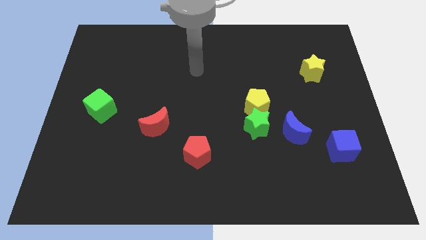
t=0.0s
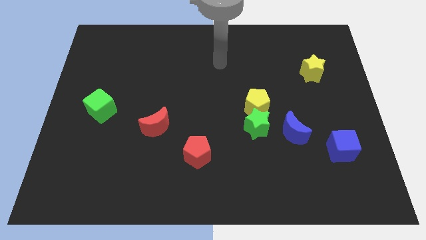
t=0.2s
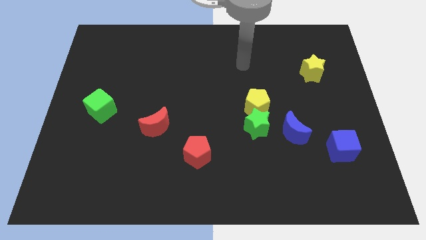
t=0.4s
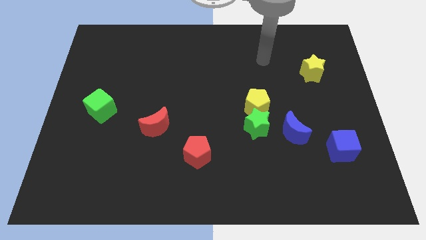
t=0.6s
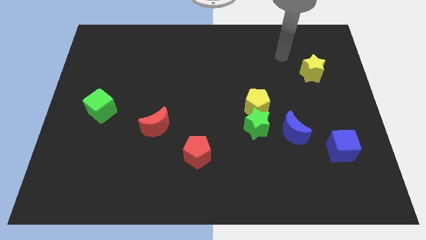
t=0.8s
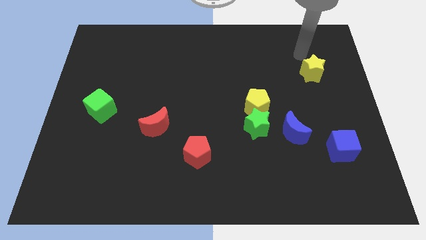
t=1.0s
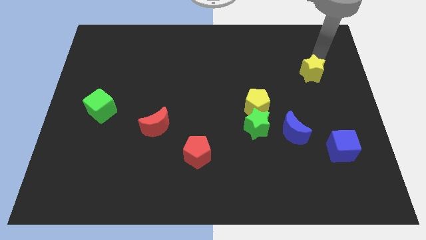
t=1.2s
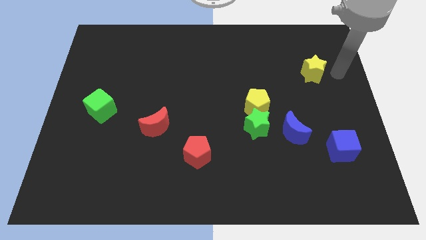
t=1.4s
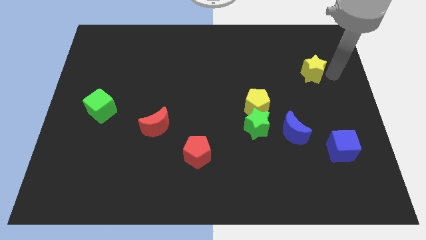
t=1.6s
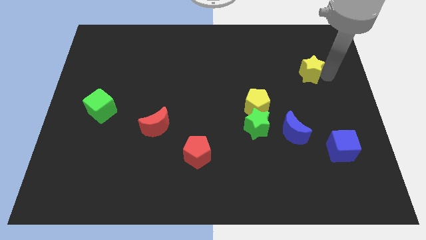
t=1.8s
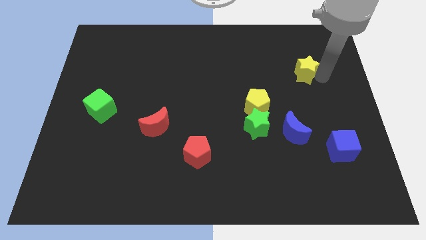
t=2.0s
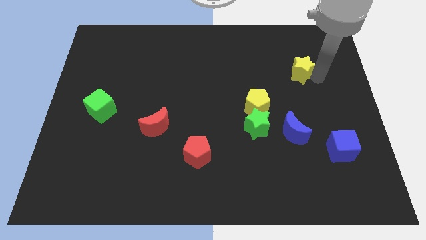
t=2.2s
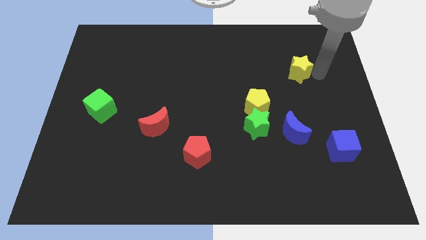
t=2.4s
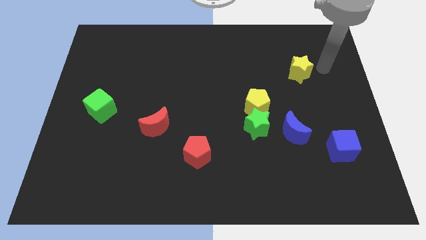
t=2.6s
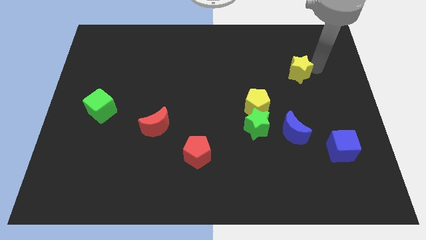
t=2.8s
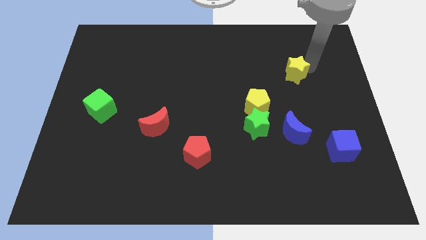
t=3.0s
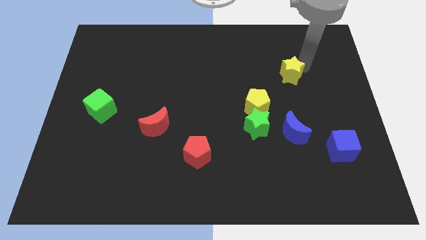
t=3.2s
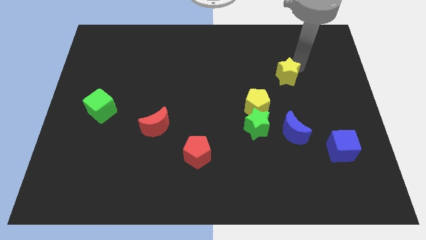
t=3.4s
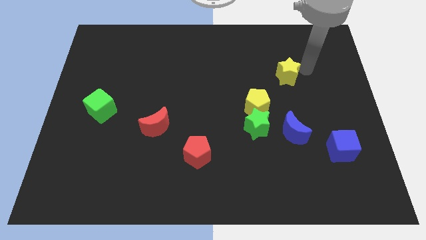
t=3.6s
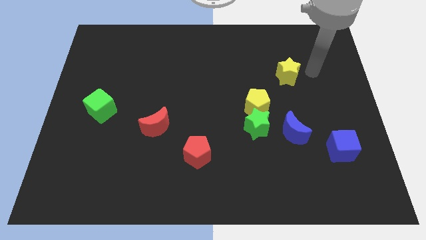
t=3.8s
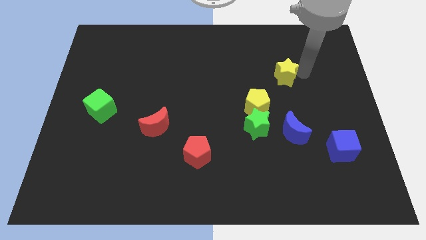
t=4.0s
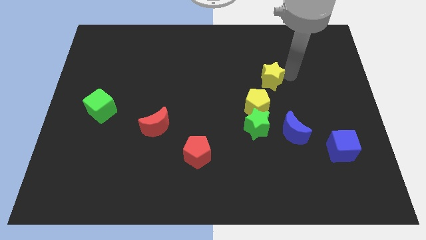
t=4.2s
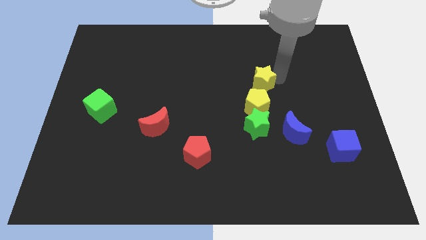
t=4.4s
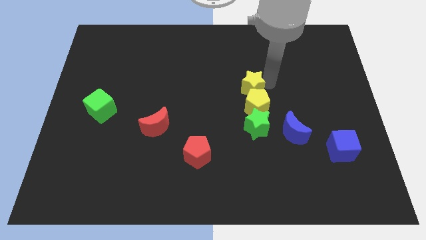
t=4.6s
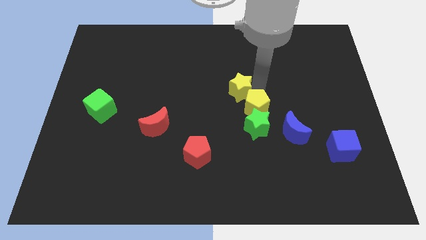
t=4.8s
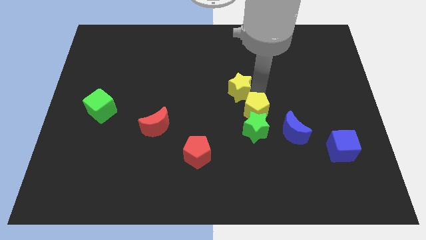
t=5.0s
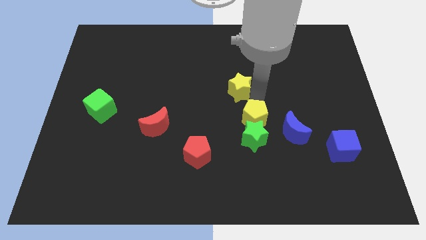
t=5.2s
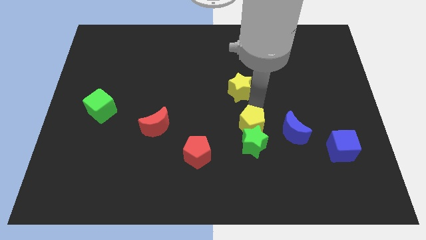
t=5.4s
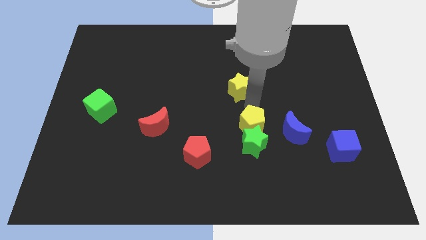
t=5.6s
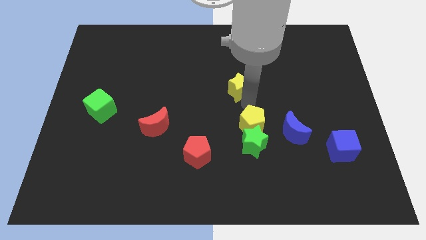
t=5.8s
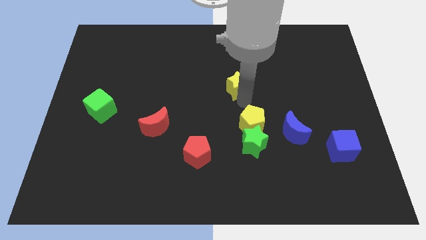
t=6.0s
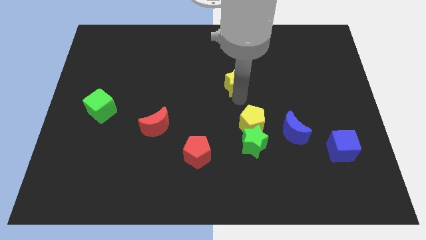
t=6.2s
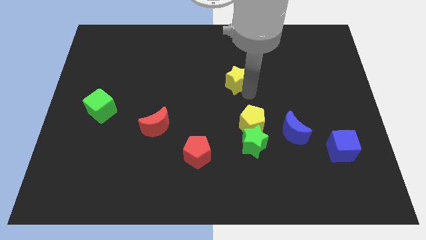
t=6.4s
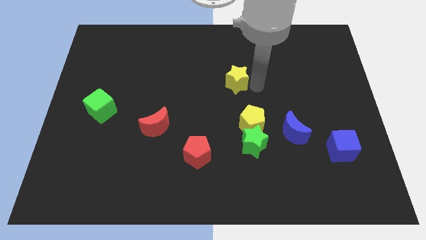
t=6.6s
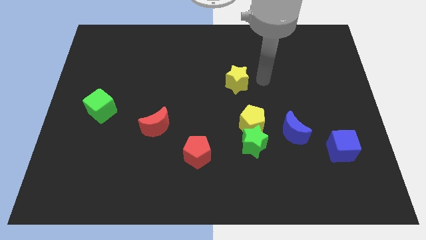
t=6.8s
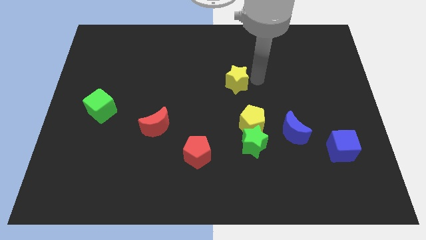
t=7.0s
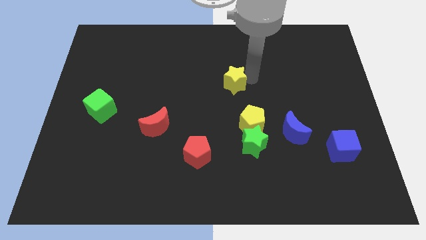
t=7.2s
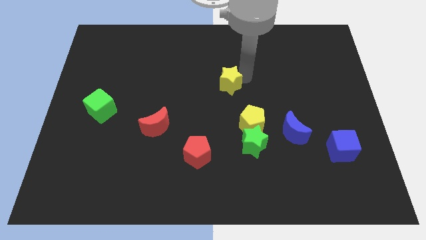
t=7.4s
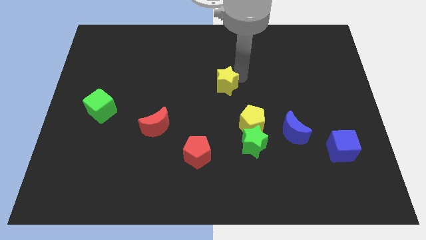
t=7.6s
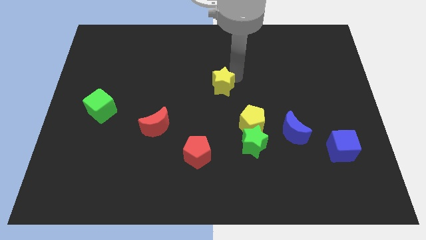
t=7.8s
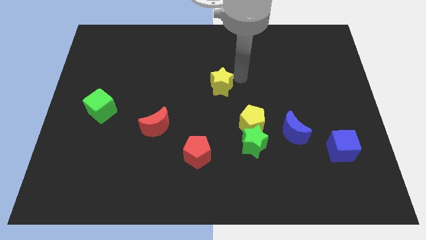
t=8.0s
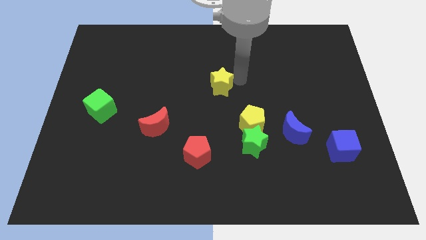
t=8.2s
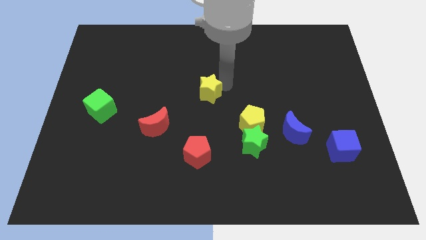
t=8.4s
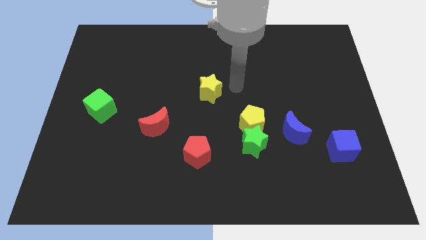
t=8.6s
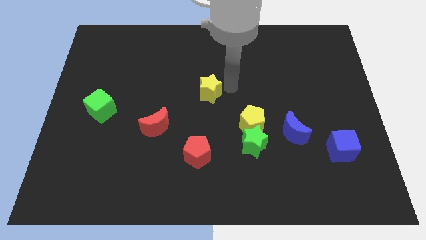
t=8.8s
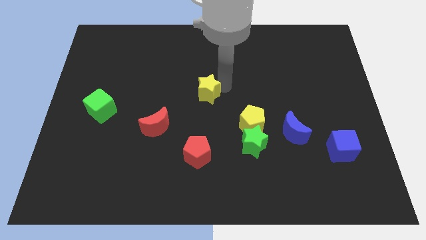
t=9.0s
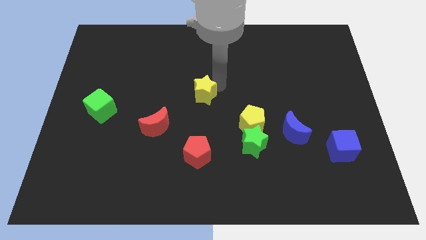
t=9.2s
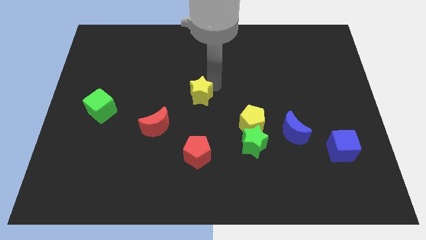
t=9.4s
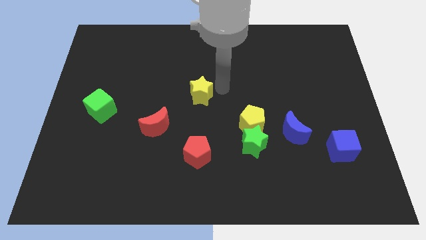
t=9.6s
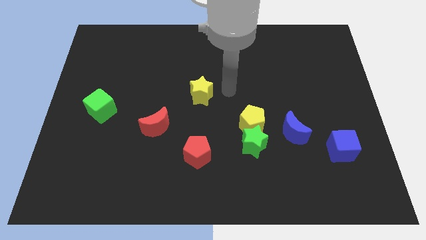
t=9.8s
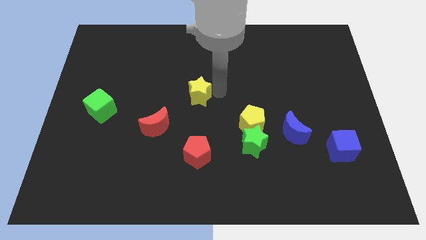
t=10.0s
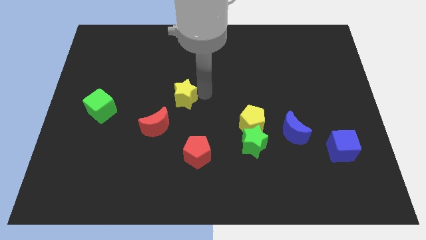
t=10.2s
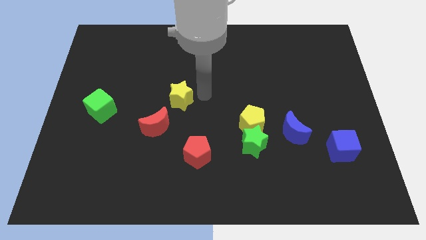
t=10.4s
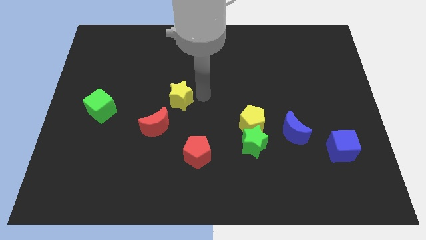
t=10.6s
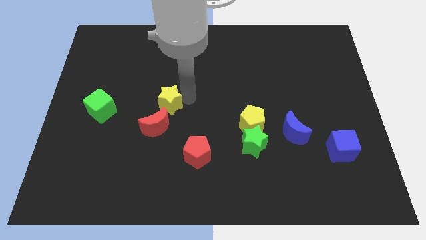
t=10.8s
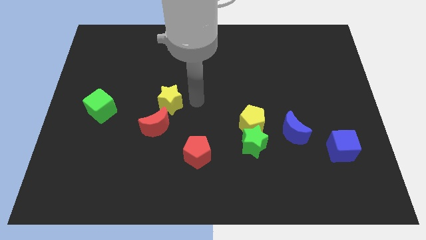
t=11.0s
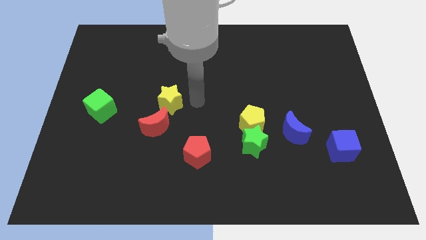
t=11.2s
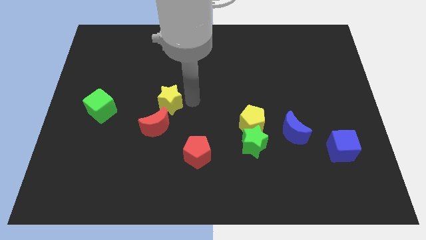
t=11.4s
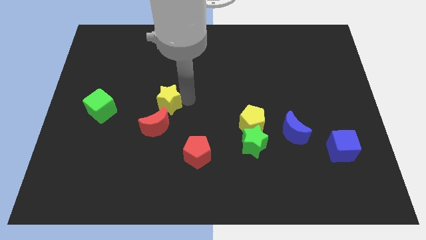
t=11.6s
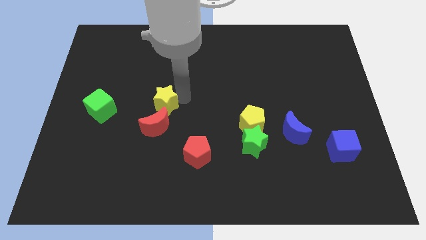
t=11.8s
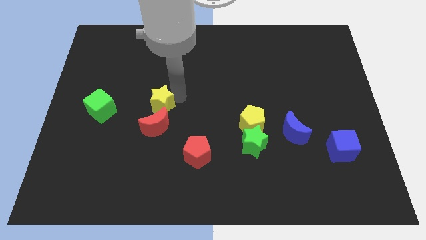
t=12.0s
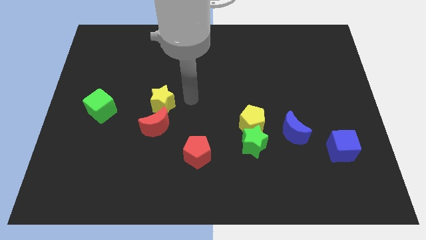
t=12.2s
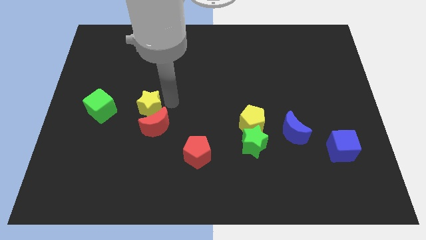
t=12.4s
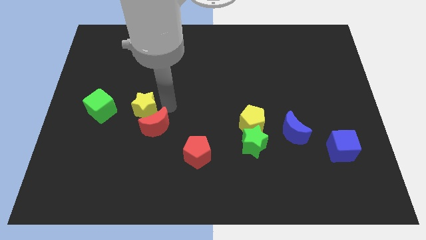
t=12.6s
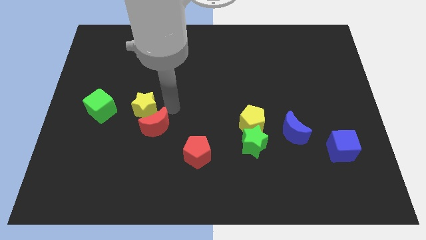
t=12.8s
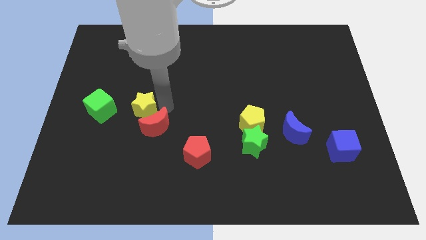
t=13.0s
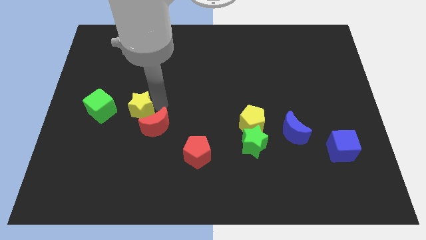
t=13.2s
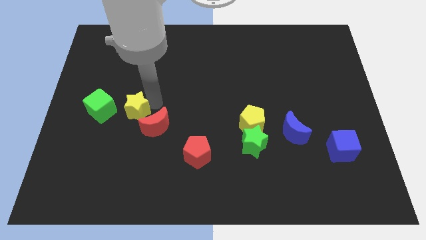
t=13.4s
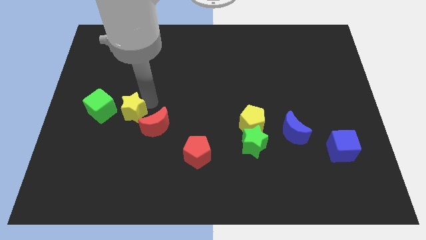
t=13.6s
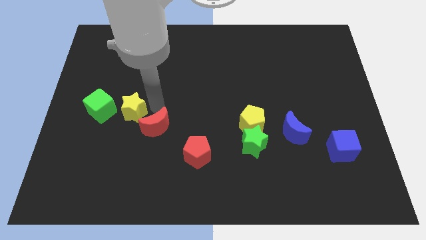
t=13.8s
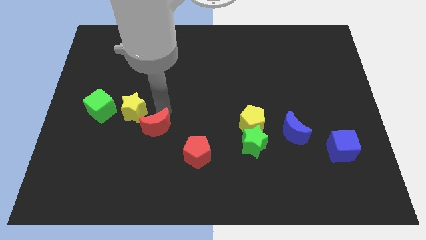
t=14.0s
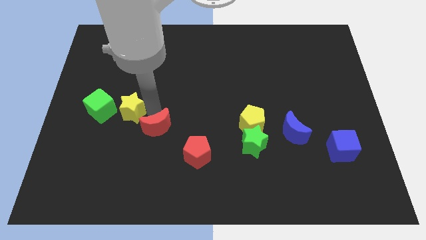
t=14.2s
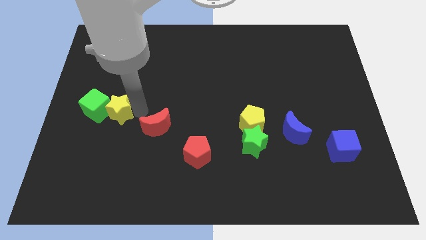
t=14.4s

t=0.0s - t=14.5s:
push the yellow star towards the green cube
